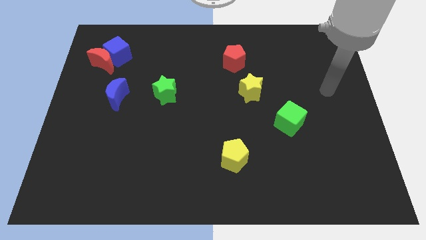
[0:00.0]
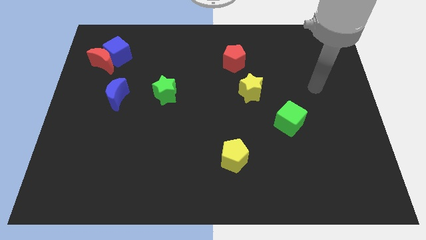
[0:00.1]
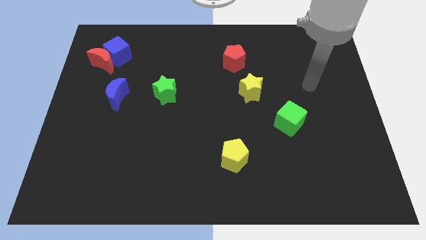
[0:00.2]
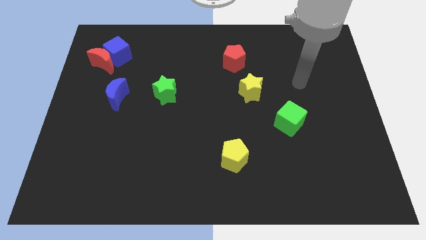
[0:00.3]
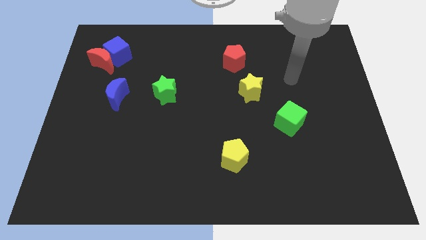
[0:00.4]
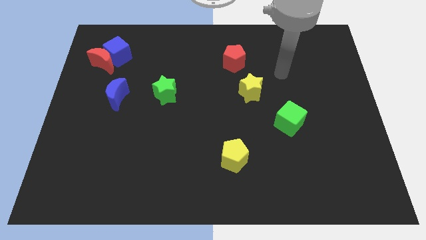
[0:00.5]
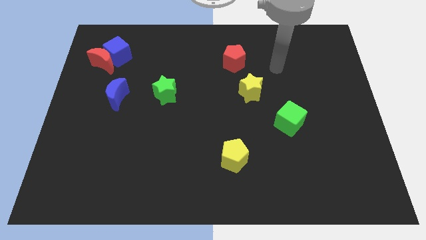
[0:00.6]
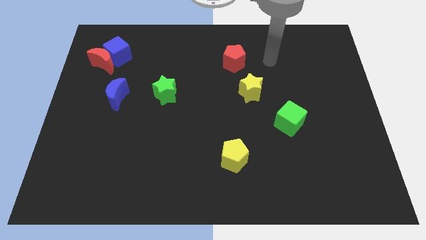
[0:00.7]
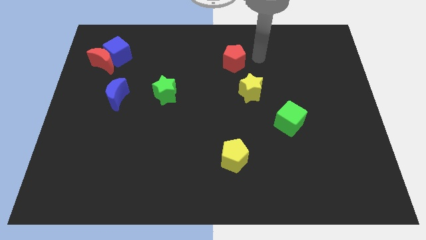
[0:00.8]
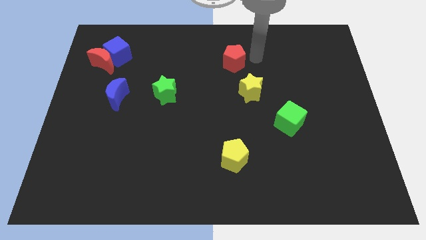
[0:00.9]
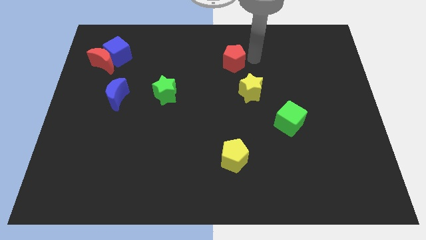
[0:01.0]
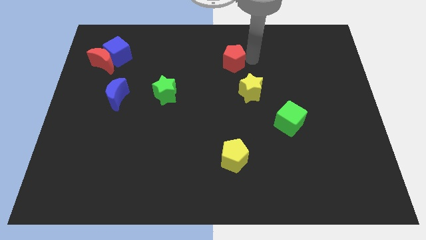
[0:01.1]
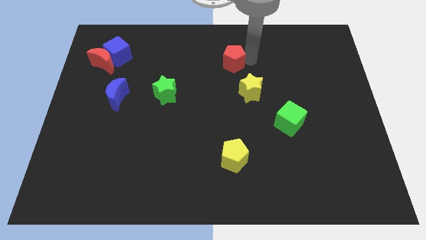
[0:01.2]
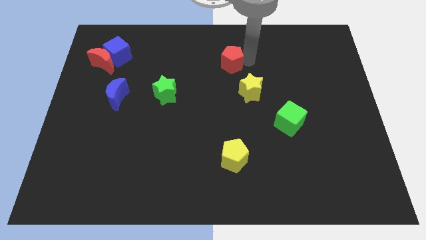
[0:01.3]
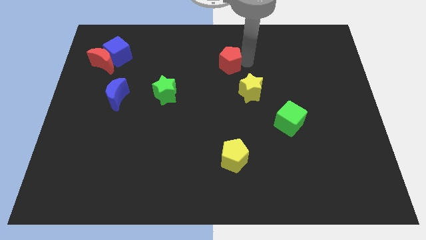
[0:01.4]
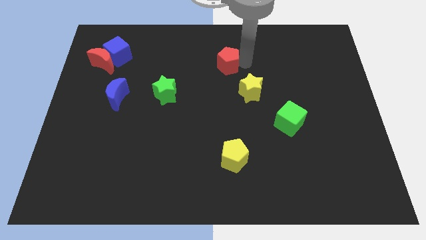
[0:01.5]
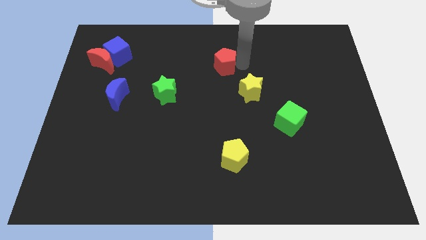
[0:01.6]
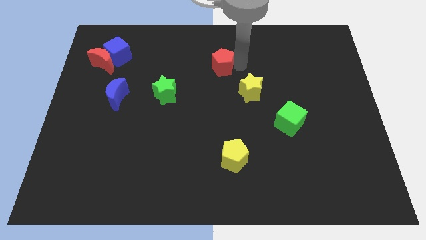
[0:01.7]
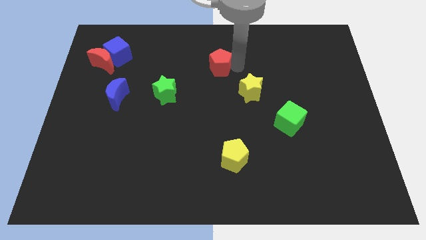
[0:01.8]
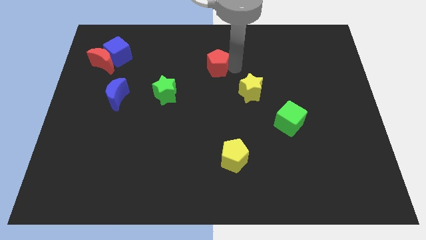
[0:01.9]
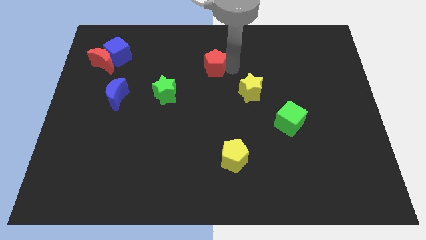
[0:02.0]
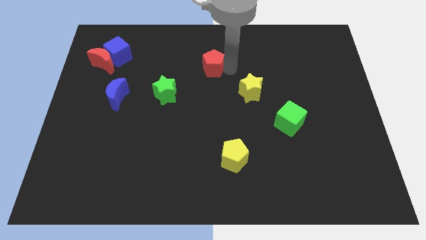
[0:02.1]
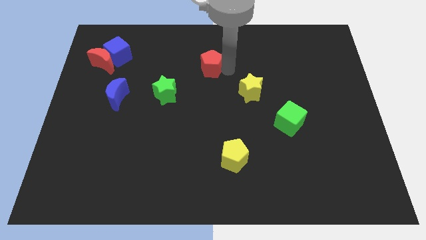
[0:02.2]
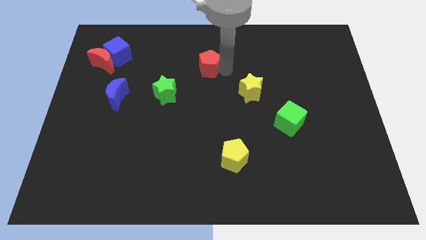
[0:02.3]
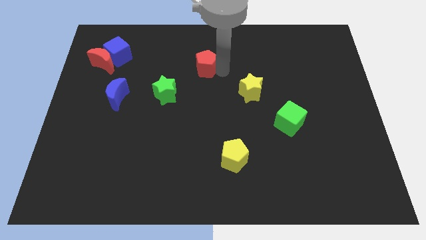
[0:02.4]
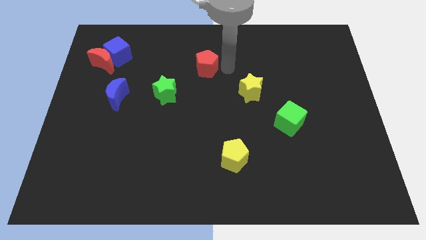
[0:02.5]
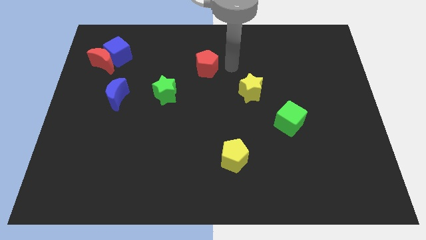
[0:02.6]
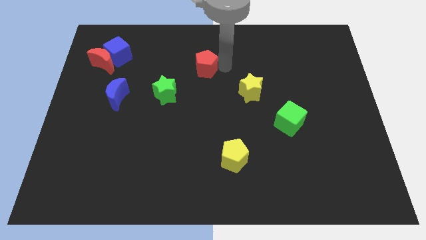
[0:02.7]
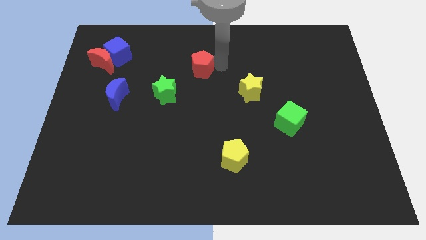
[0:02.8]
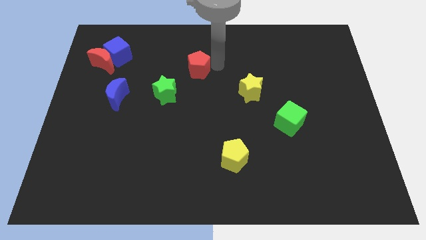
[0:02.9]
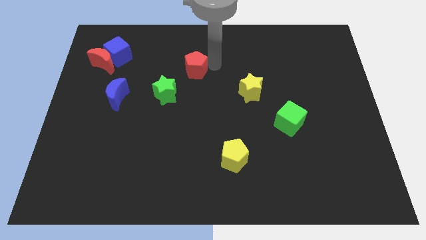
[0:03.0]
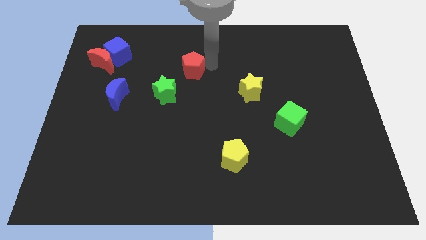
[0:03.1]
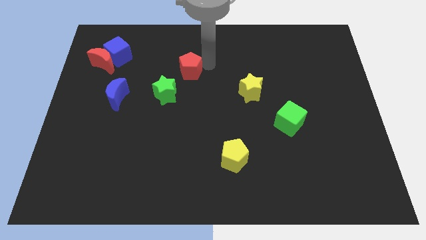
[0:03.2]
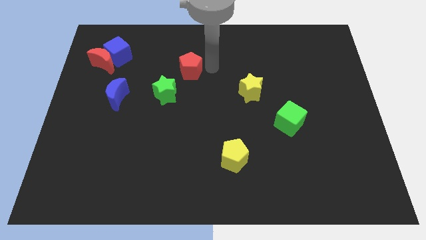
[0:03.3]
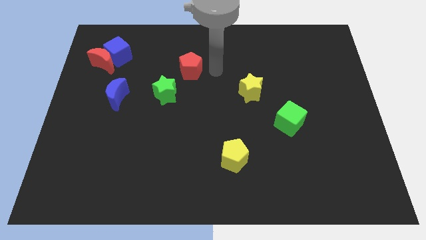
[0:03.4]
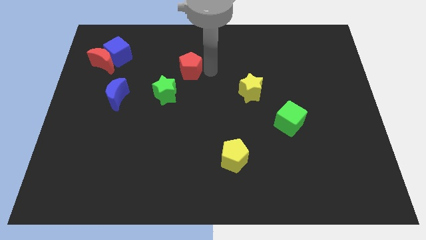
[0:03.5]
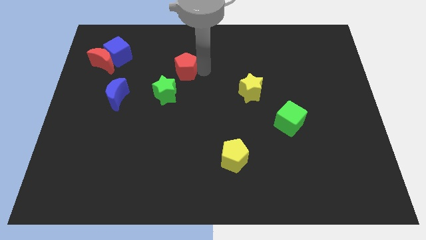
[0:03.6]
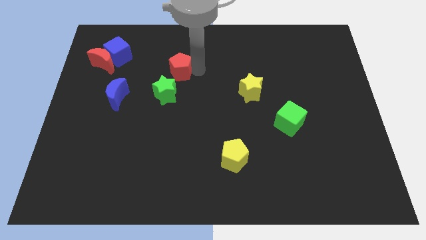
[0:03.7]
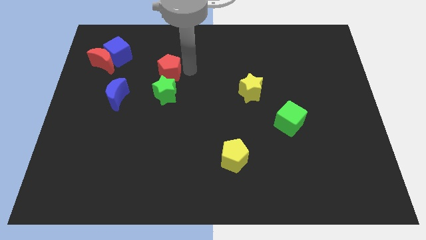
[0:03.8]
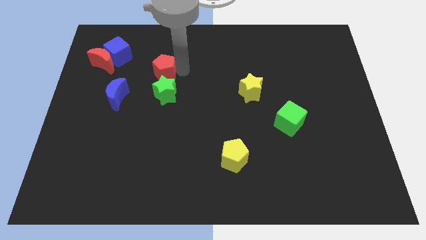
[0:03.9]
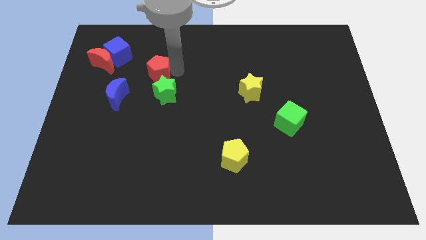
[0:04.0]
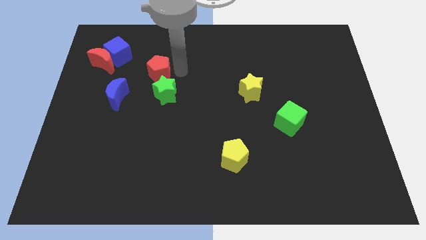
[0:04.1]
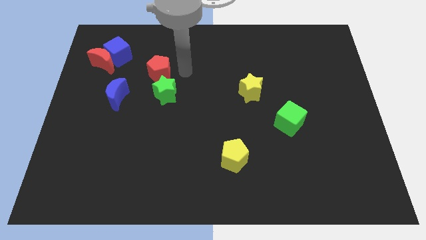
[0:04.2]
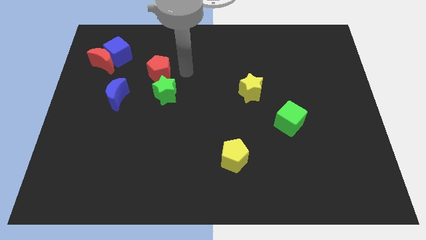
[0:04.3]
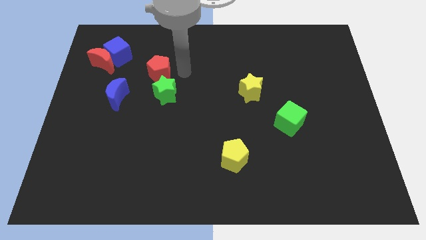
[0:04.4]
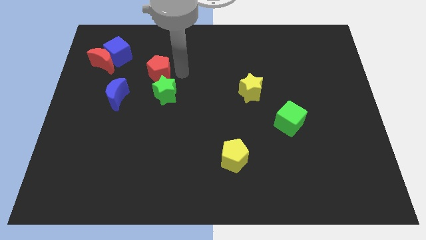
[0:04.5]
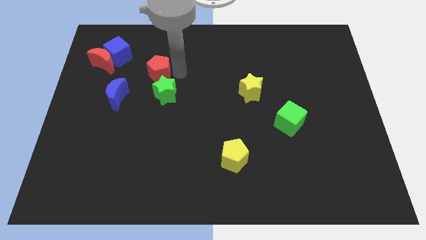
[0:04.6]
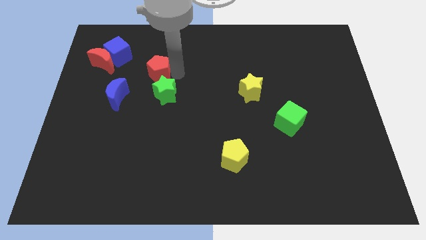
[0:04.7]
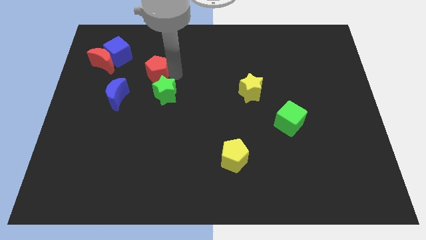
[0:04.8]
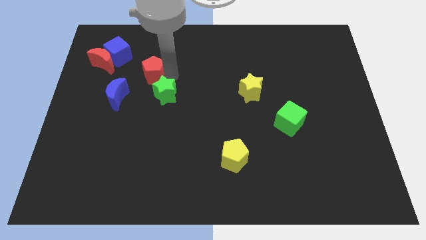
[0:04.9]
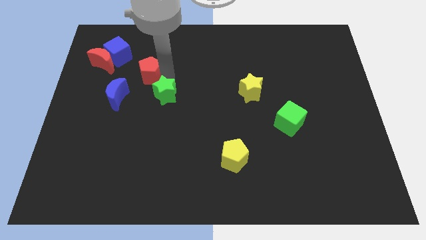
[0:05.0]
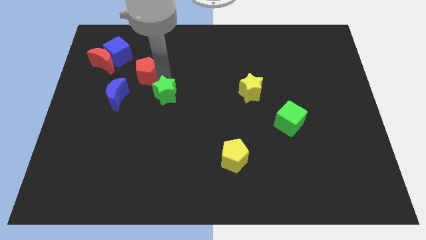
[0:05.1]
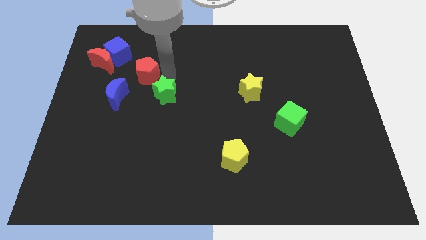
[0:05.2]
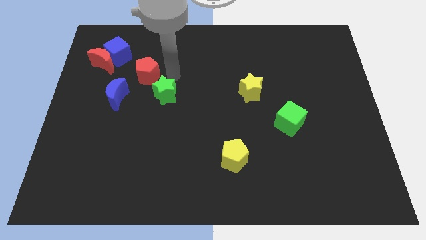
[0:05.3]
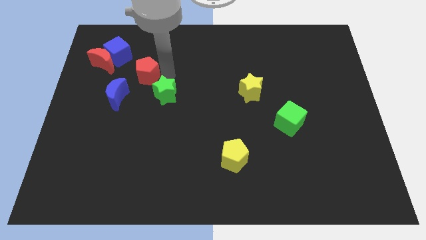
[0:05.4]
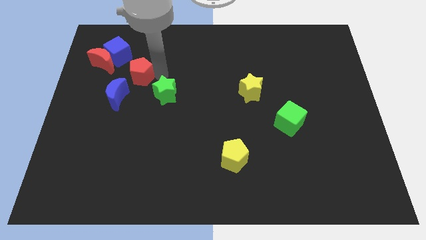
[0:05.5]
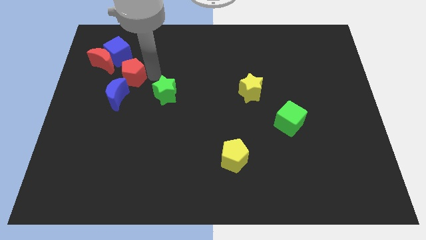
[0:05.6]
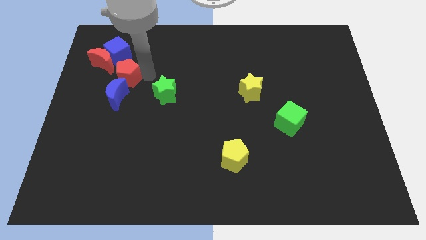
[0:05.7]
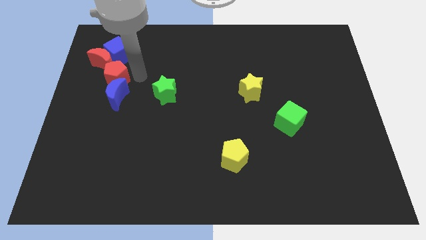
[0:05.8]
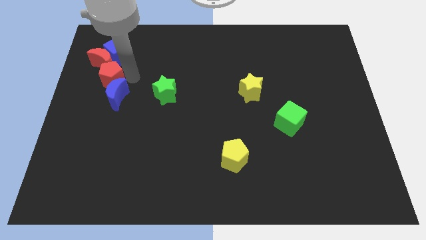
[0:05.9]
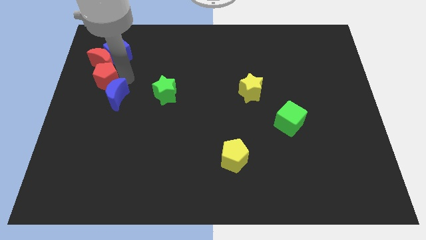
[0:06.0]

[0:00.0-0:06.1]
push the red pentagon close to the red moon

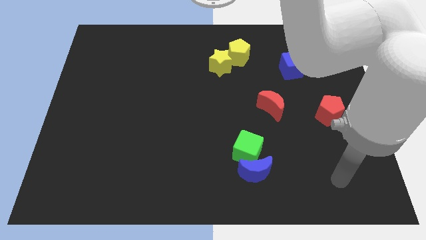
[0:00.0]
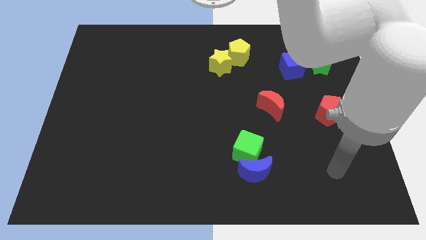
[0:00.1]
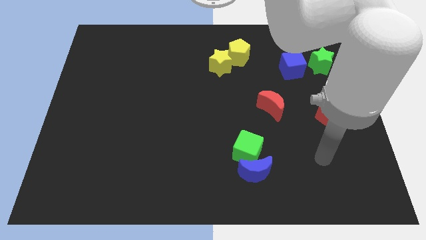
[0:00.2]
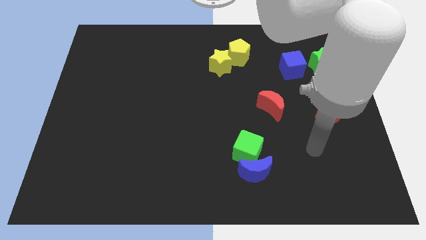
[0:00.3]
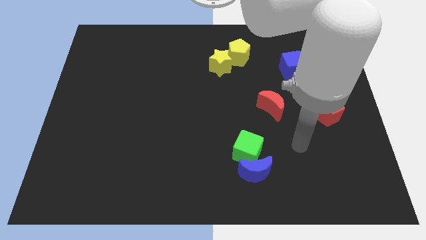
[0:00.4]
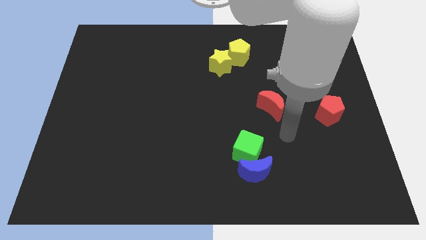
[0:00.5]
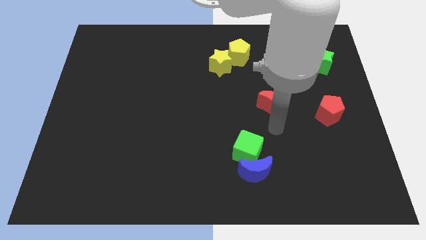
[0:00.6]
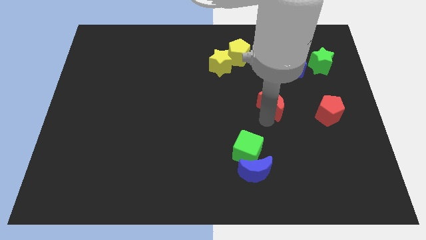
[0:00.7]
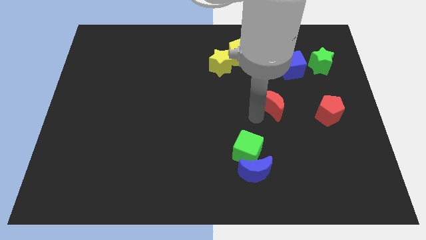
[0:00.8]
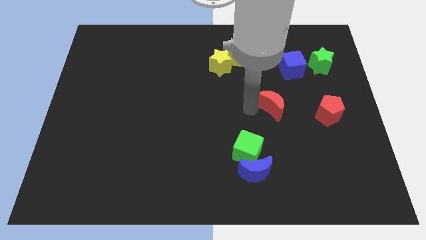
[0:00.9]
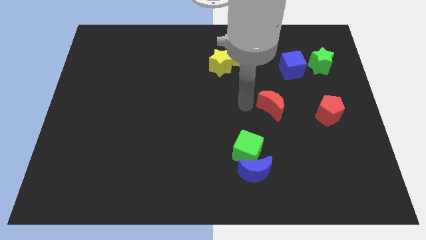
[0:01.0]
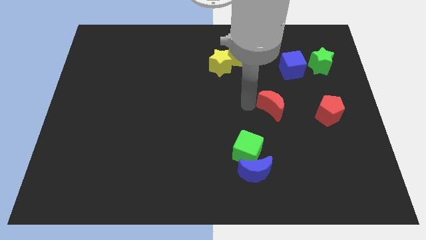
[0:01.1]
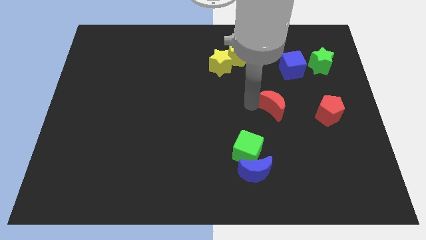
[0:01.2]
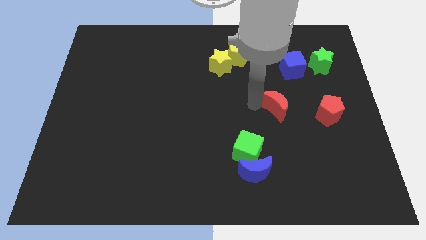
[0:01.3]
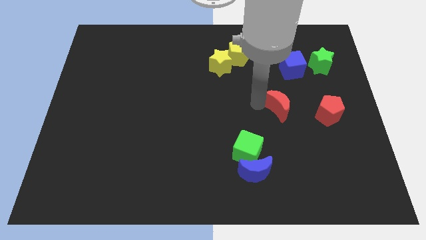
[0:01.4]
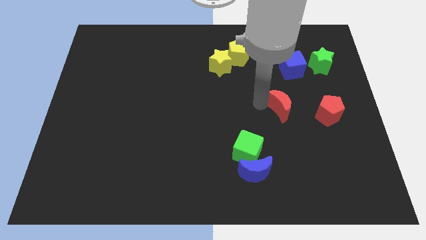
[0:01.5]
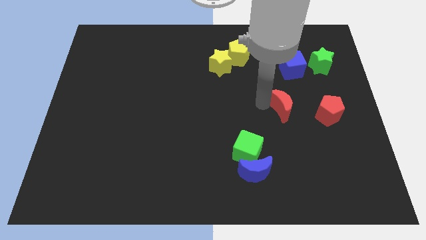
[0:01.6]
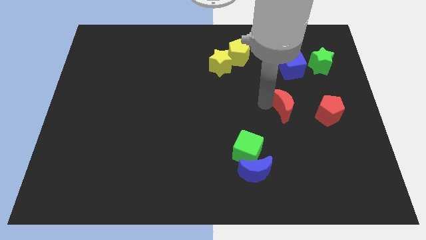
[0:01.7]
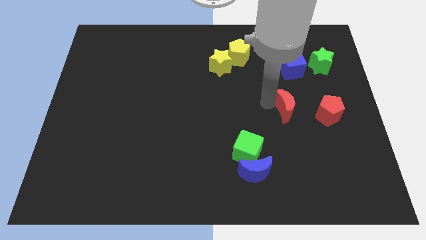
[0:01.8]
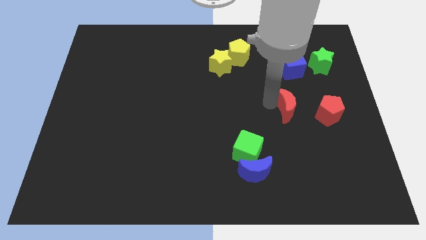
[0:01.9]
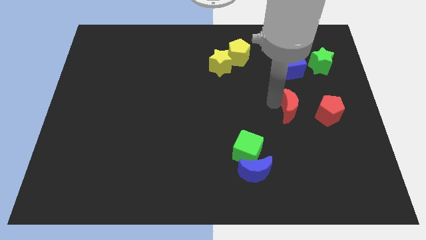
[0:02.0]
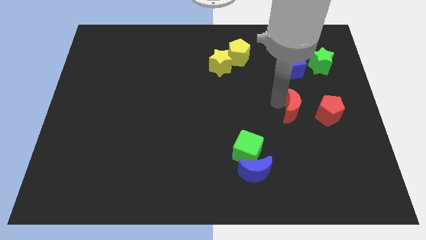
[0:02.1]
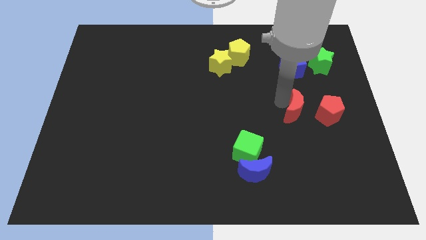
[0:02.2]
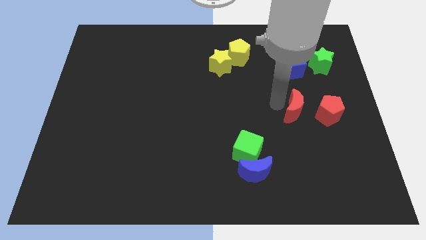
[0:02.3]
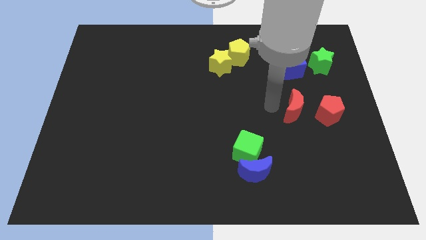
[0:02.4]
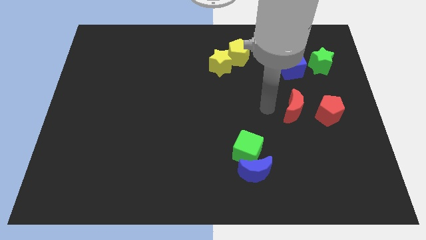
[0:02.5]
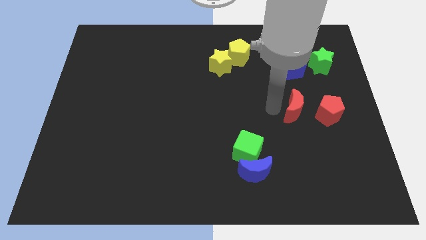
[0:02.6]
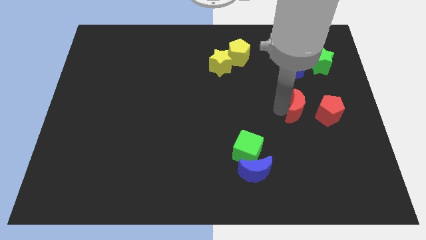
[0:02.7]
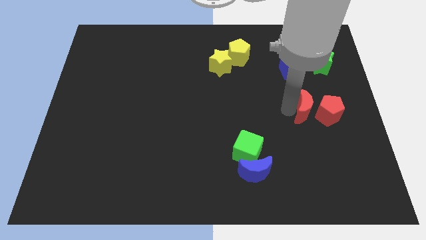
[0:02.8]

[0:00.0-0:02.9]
move the red moon next to the red pentagon
